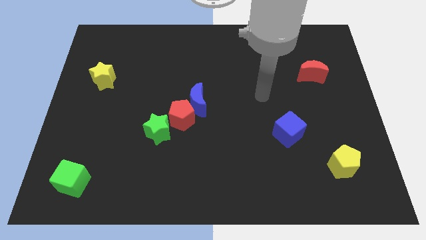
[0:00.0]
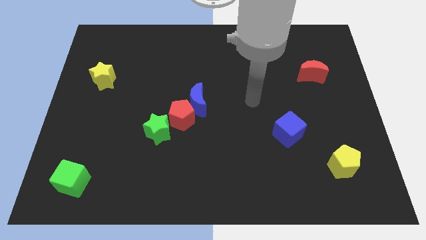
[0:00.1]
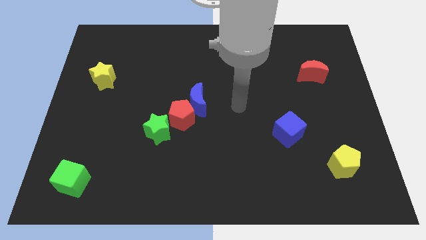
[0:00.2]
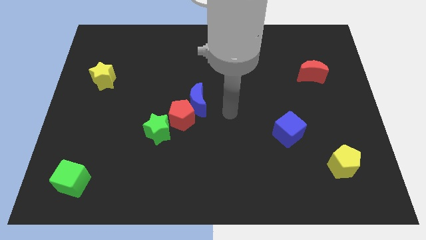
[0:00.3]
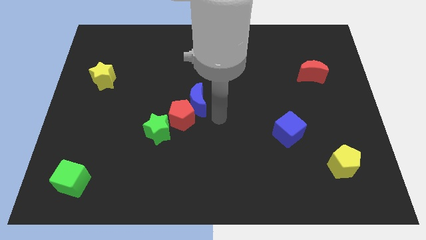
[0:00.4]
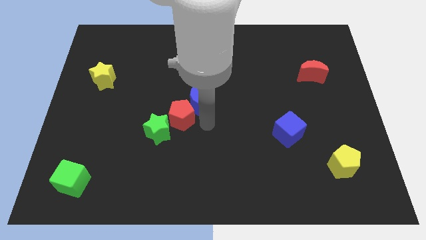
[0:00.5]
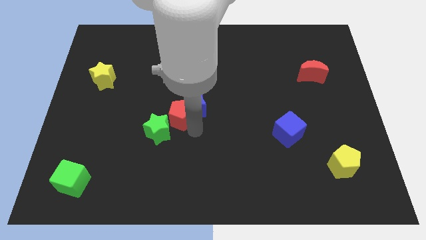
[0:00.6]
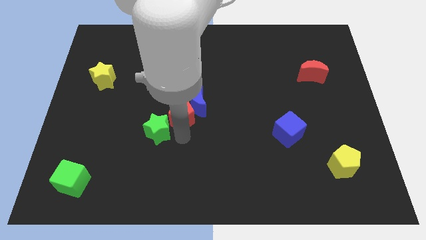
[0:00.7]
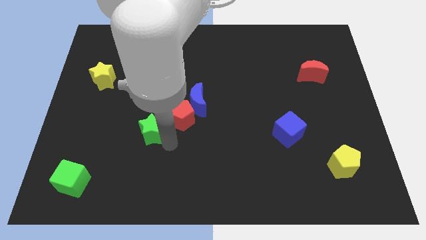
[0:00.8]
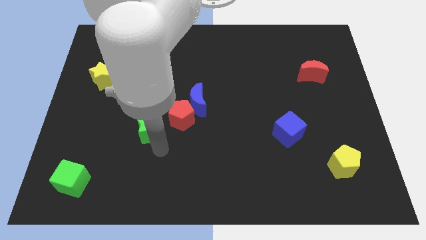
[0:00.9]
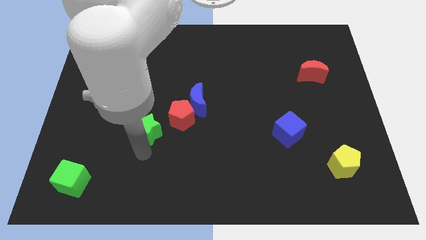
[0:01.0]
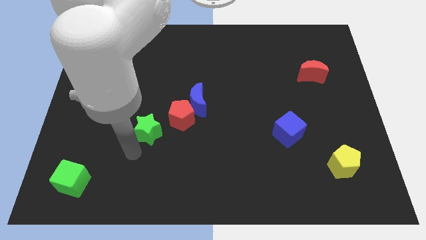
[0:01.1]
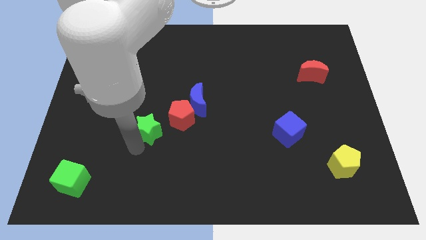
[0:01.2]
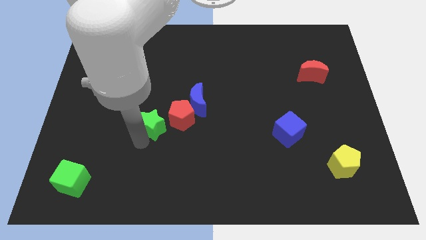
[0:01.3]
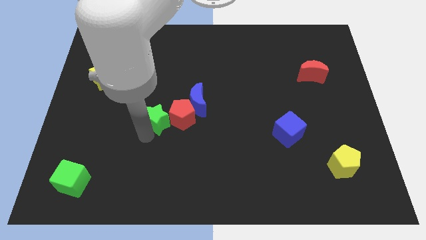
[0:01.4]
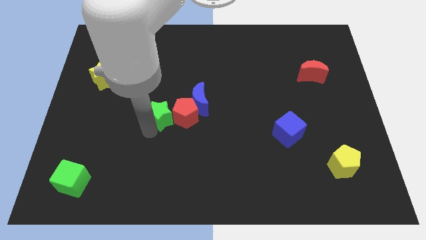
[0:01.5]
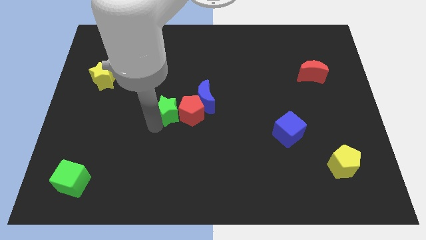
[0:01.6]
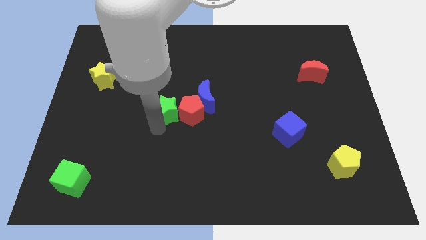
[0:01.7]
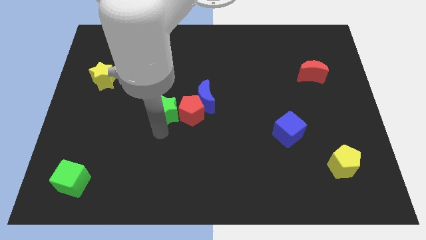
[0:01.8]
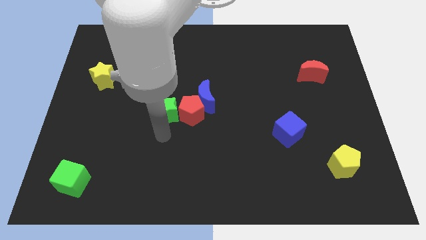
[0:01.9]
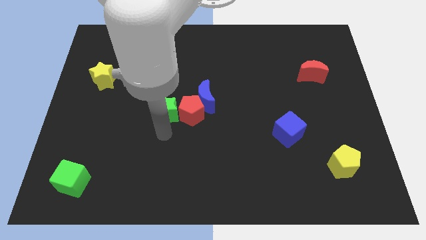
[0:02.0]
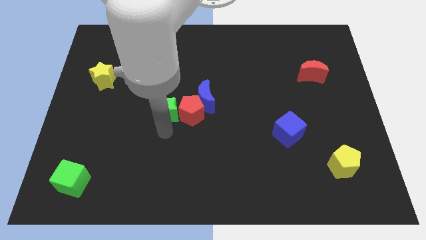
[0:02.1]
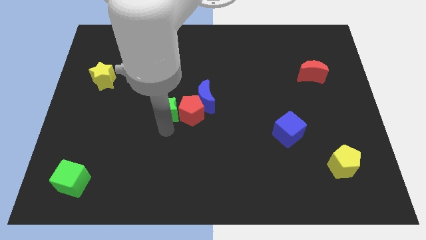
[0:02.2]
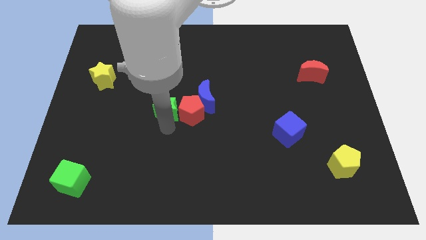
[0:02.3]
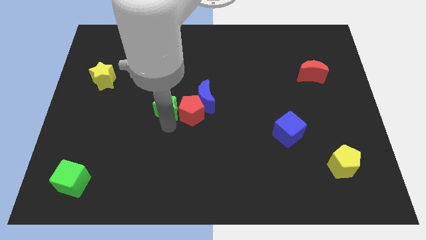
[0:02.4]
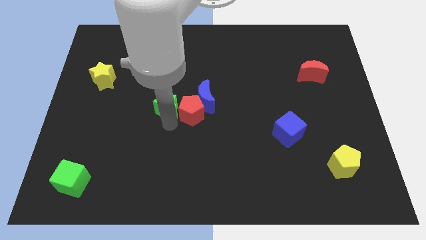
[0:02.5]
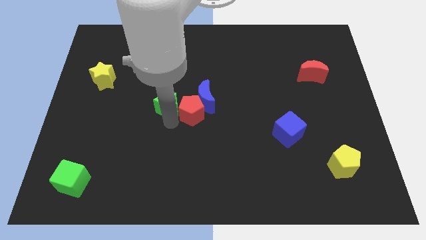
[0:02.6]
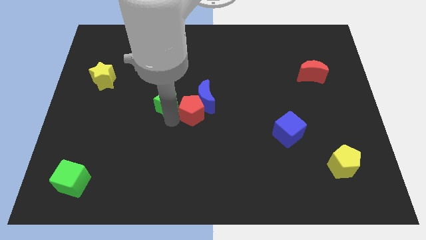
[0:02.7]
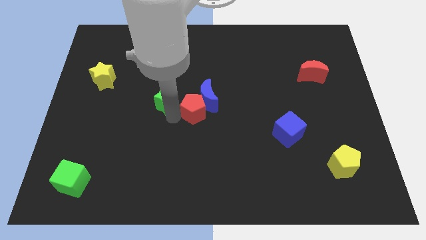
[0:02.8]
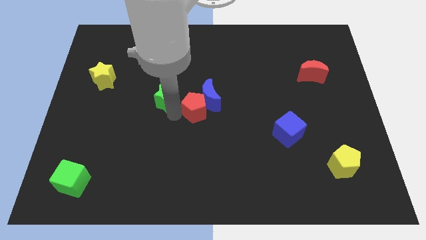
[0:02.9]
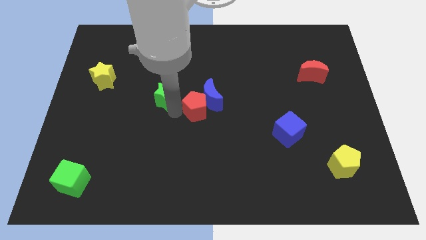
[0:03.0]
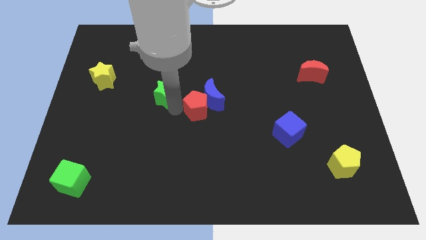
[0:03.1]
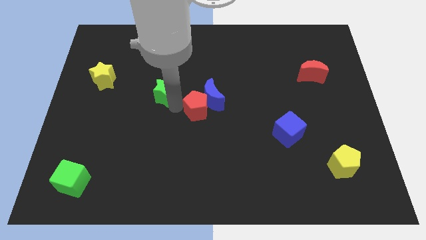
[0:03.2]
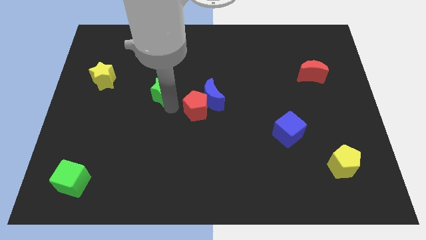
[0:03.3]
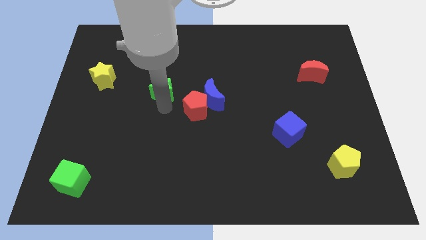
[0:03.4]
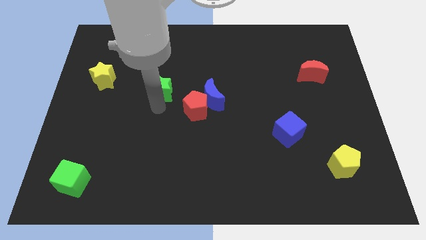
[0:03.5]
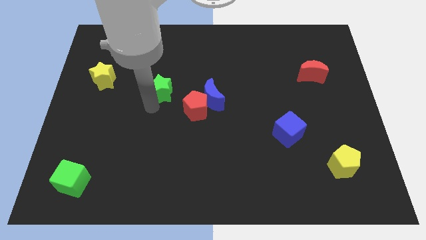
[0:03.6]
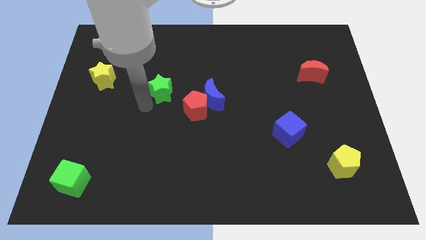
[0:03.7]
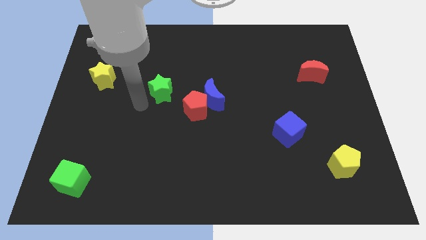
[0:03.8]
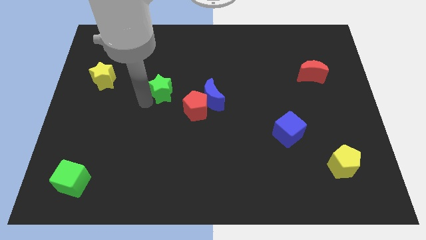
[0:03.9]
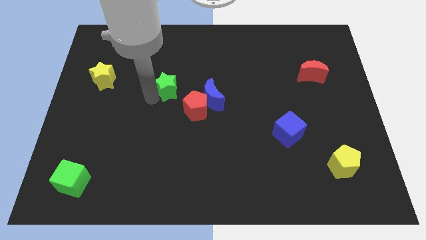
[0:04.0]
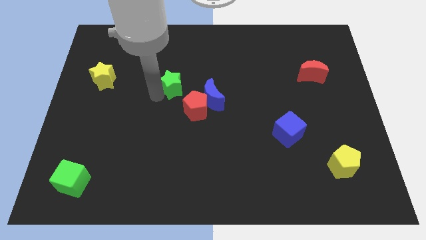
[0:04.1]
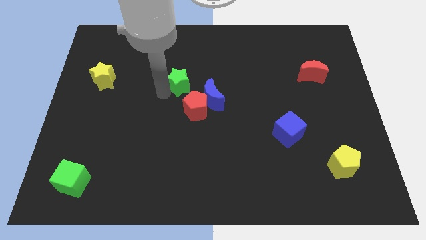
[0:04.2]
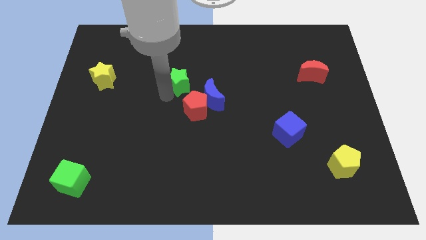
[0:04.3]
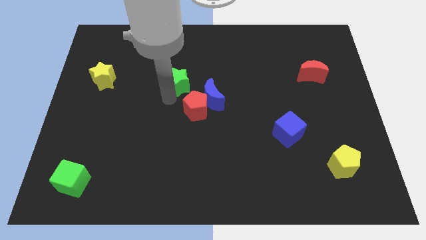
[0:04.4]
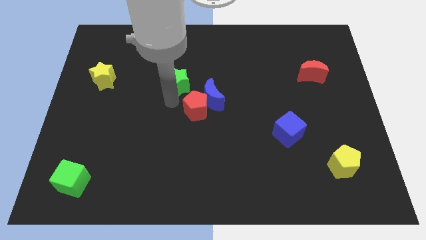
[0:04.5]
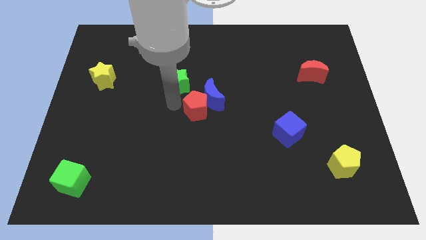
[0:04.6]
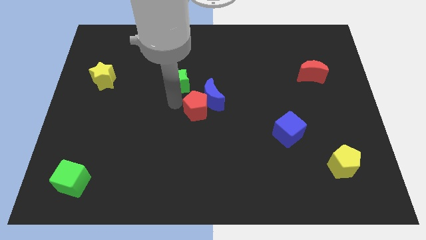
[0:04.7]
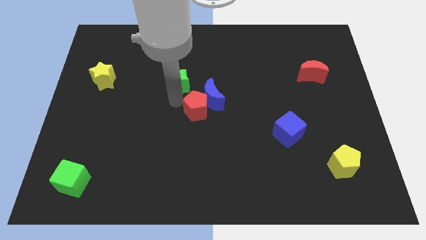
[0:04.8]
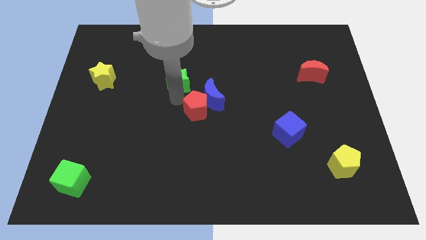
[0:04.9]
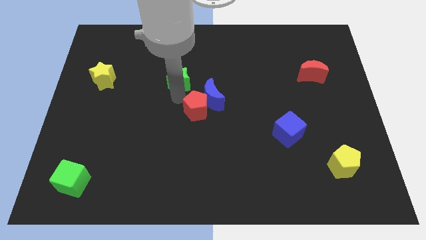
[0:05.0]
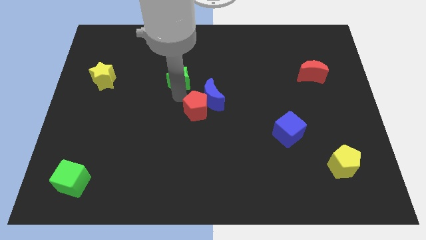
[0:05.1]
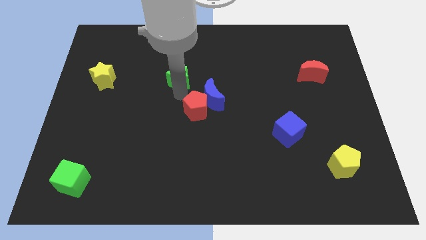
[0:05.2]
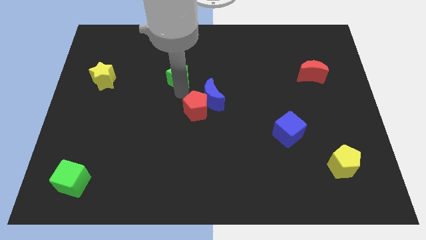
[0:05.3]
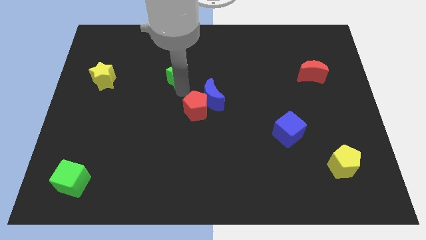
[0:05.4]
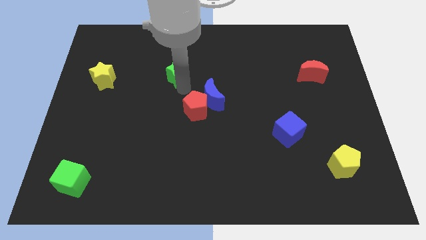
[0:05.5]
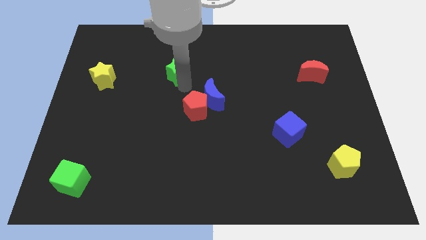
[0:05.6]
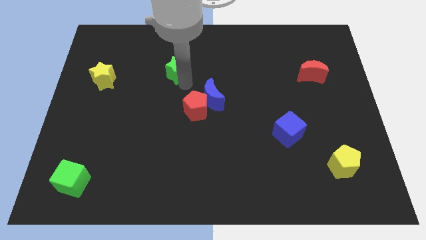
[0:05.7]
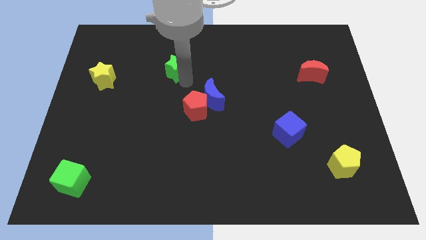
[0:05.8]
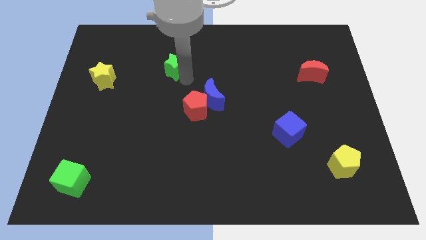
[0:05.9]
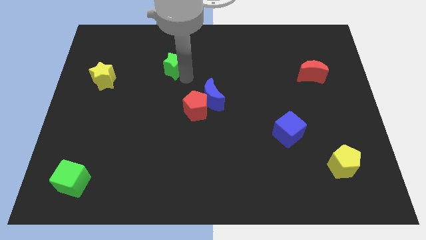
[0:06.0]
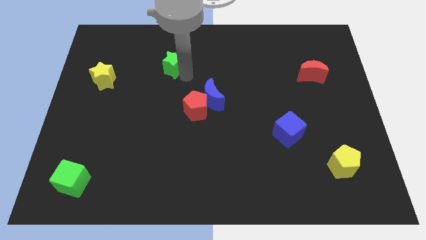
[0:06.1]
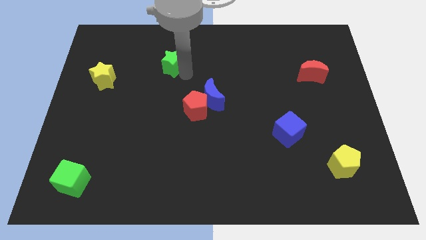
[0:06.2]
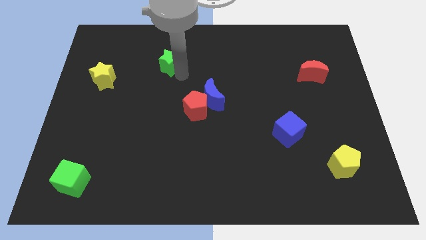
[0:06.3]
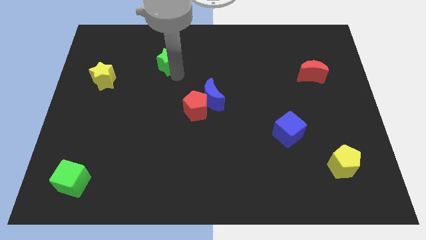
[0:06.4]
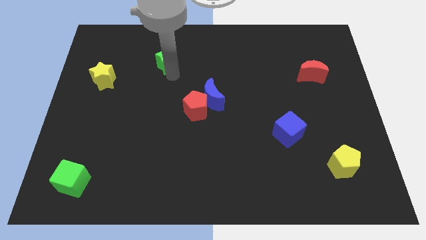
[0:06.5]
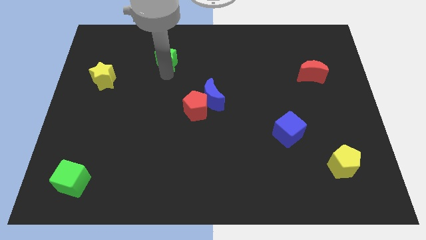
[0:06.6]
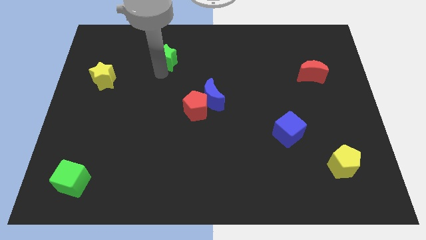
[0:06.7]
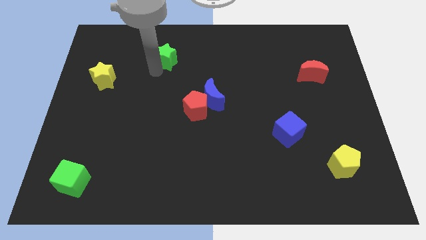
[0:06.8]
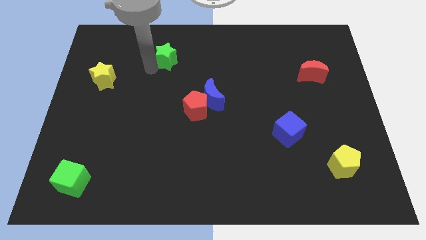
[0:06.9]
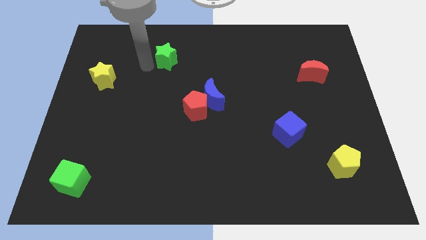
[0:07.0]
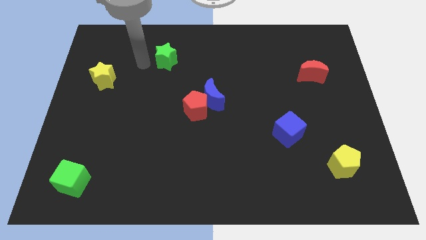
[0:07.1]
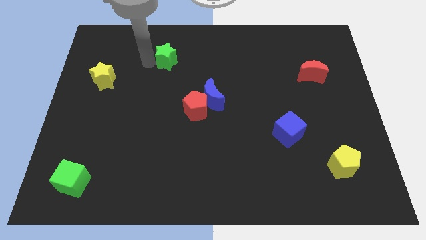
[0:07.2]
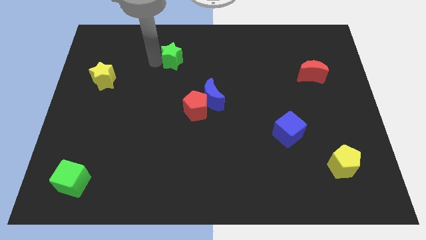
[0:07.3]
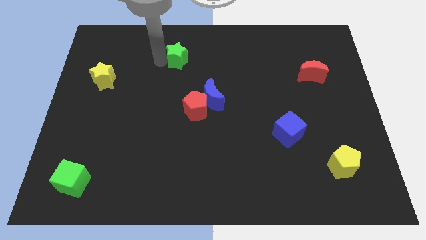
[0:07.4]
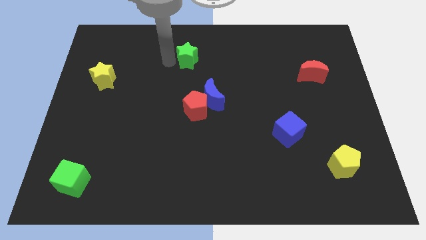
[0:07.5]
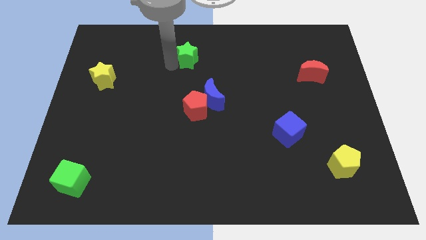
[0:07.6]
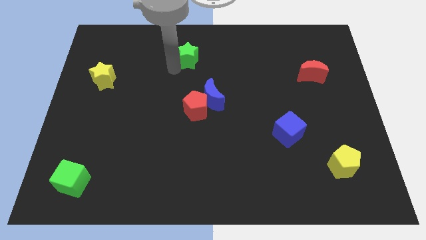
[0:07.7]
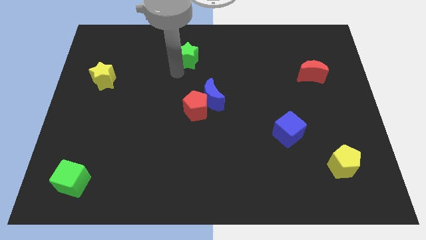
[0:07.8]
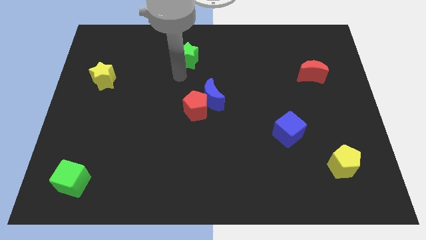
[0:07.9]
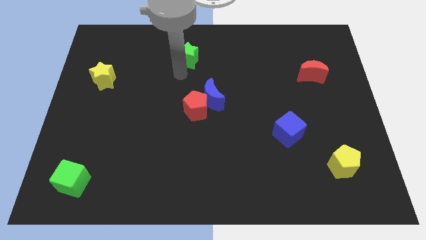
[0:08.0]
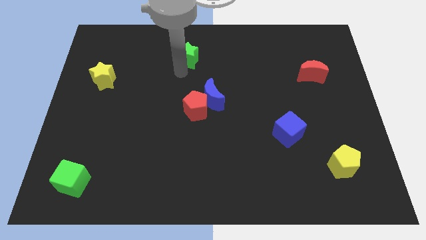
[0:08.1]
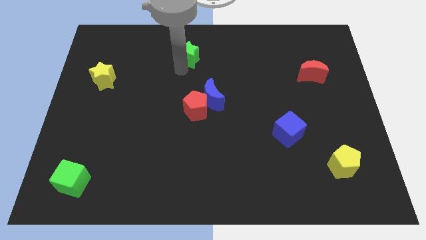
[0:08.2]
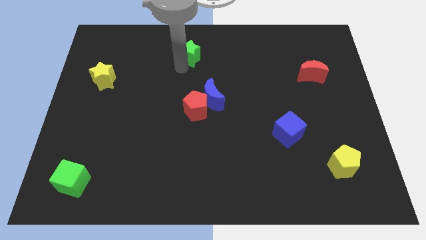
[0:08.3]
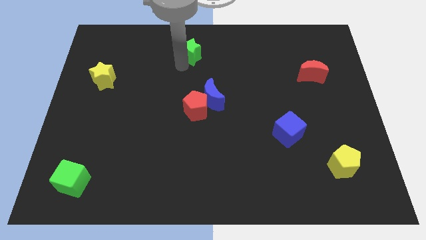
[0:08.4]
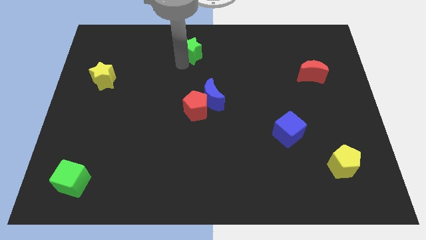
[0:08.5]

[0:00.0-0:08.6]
push the green star to the top side
